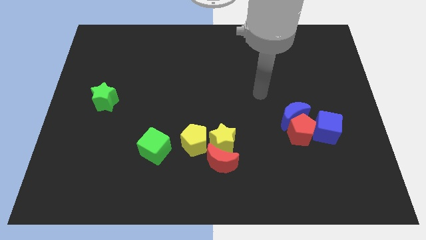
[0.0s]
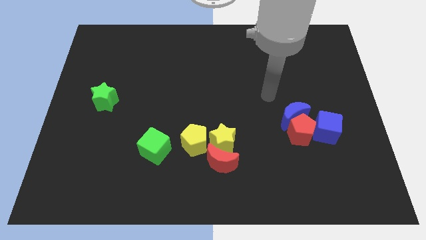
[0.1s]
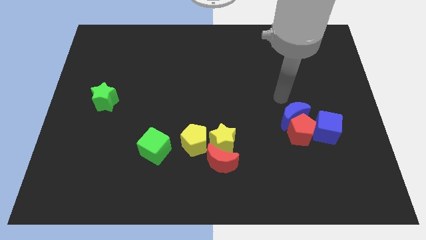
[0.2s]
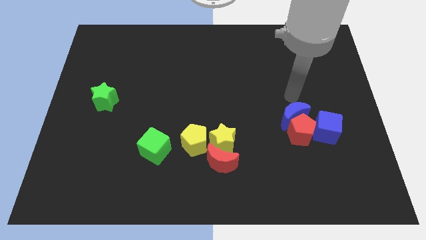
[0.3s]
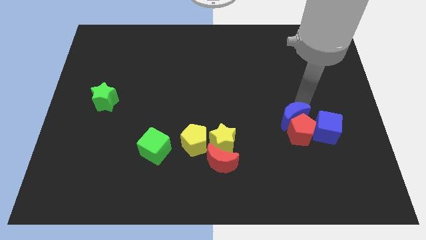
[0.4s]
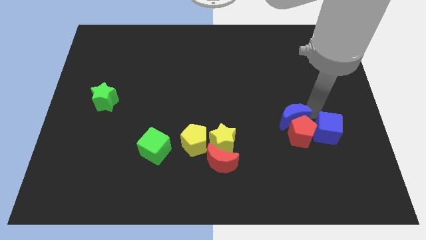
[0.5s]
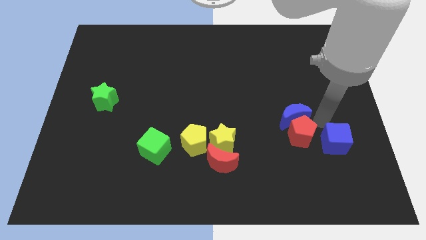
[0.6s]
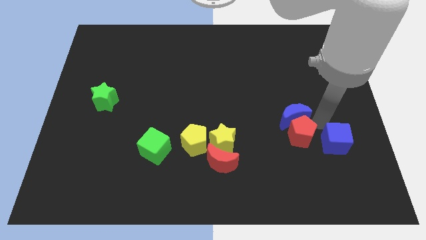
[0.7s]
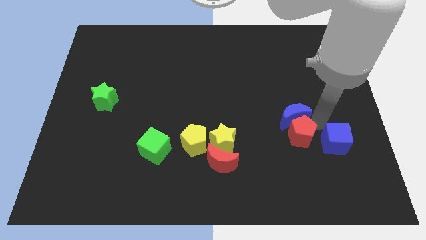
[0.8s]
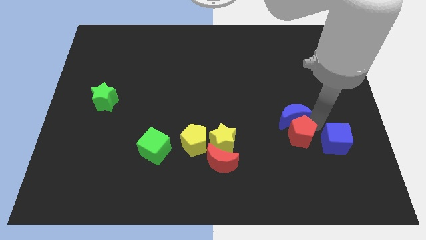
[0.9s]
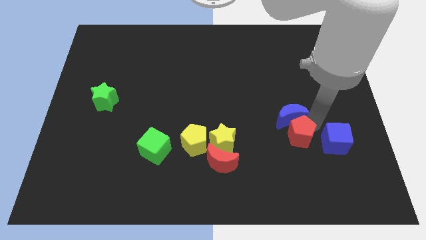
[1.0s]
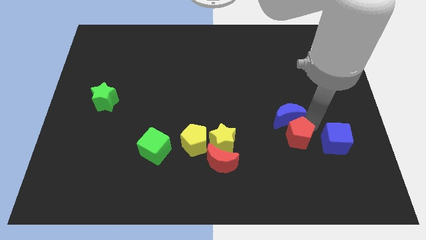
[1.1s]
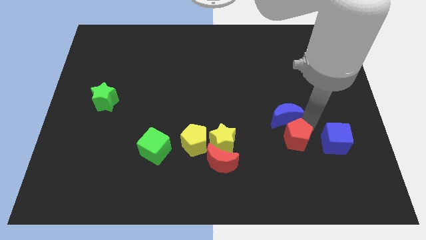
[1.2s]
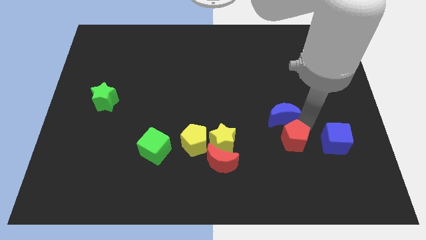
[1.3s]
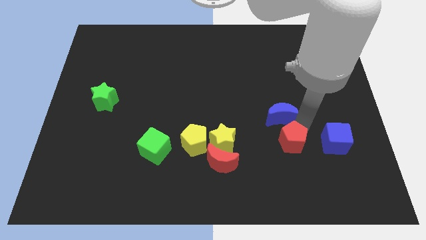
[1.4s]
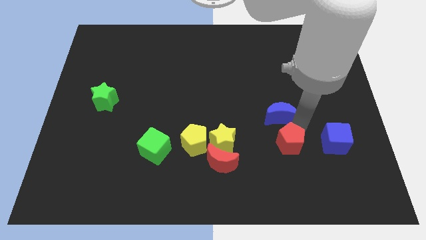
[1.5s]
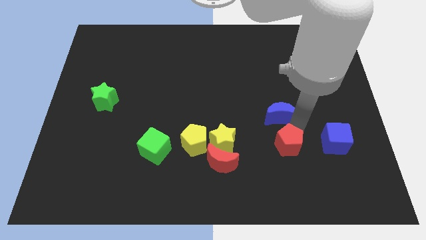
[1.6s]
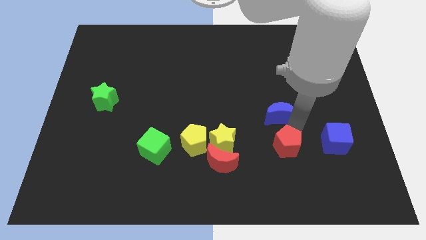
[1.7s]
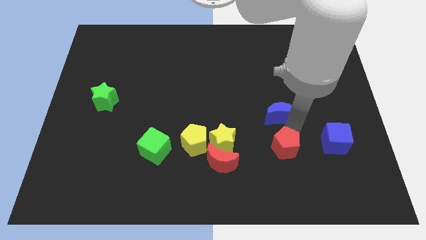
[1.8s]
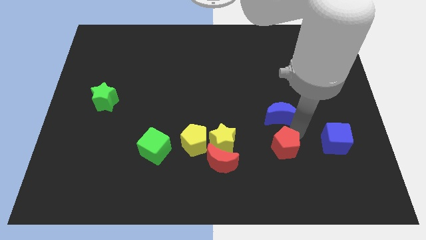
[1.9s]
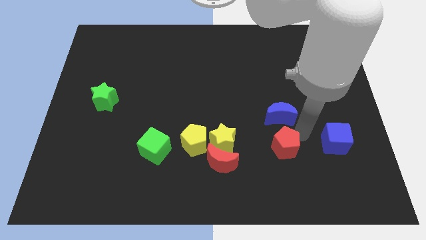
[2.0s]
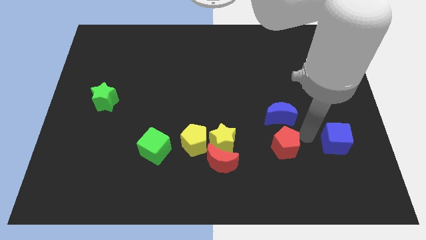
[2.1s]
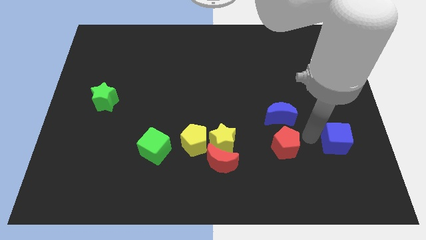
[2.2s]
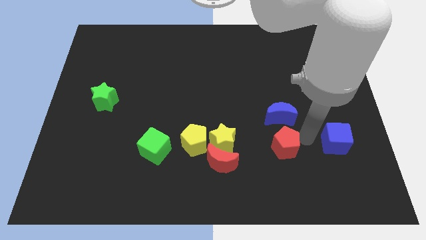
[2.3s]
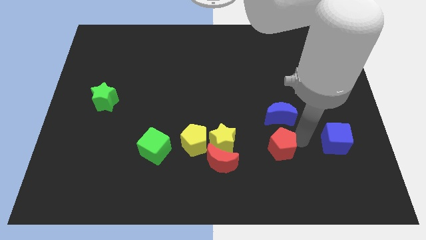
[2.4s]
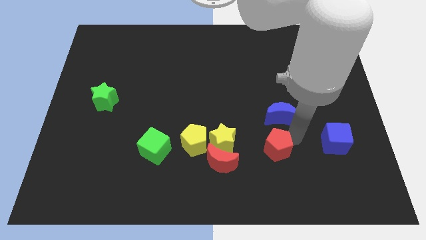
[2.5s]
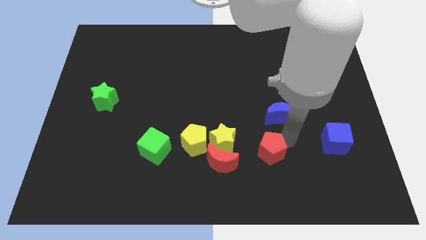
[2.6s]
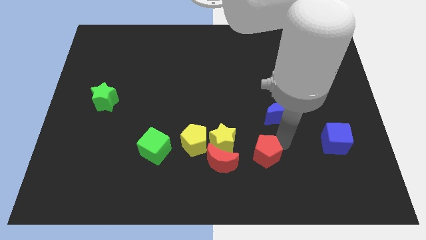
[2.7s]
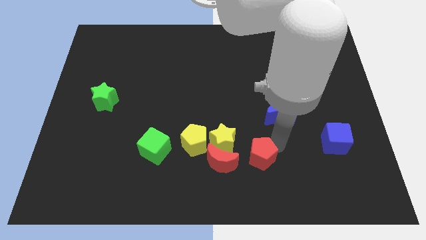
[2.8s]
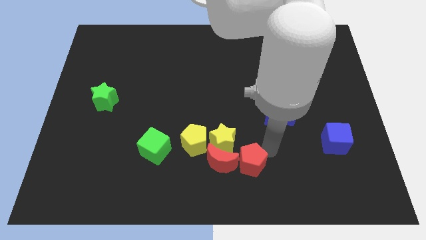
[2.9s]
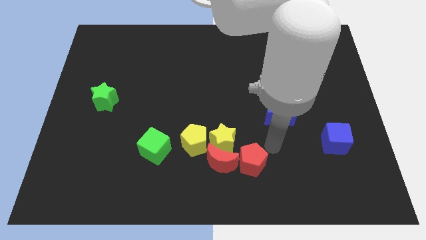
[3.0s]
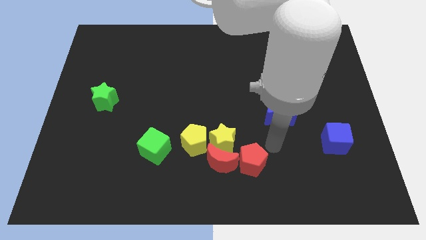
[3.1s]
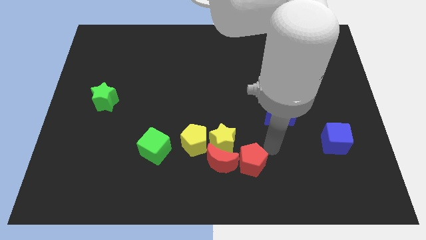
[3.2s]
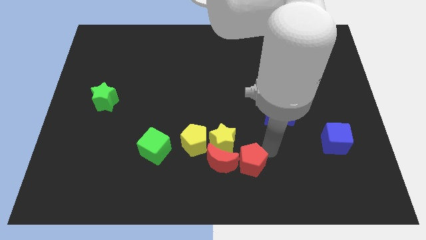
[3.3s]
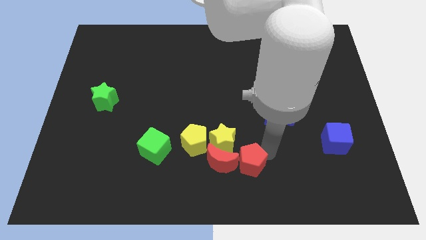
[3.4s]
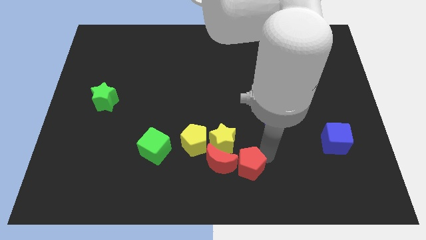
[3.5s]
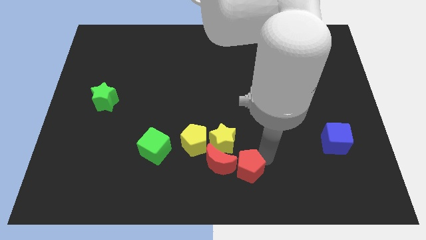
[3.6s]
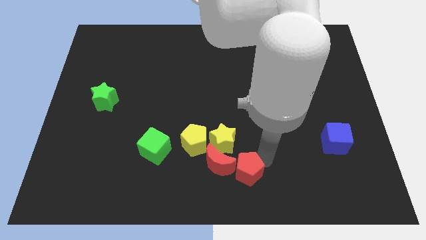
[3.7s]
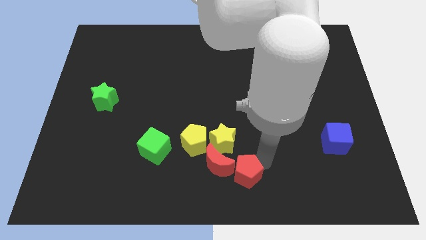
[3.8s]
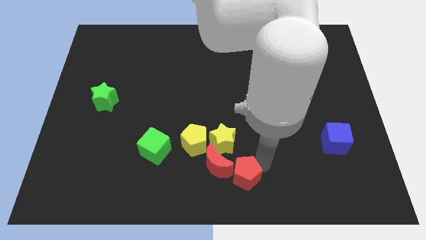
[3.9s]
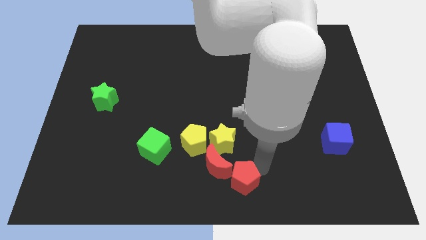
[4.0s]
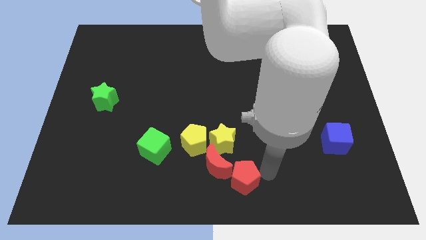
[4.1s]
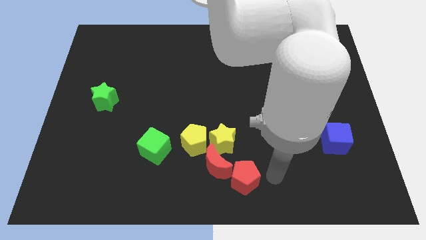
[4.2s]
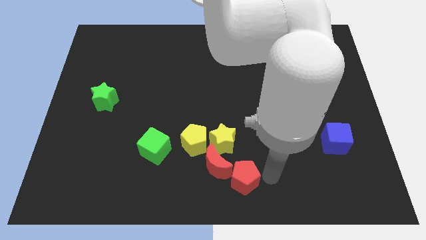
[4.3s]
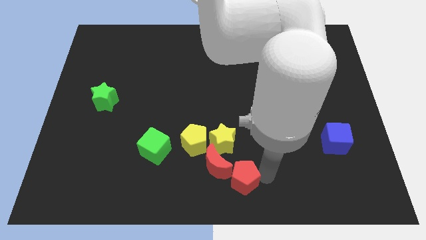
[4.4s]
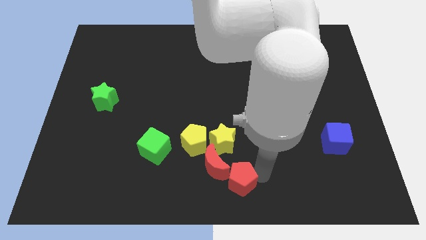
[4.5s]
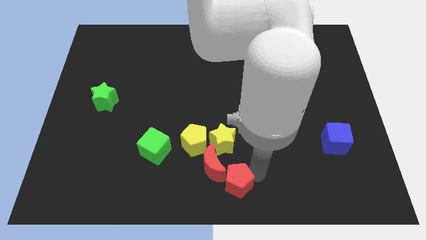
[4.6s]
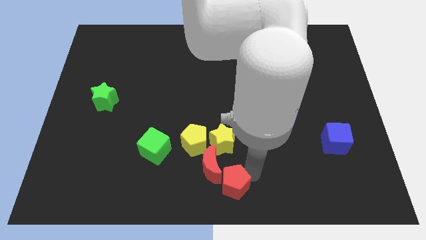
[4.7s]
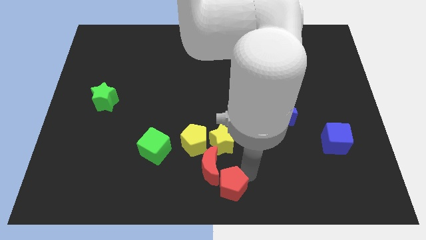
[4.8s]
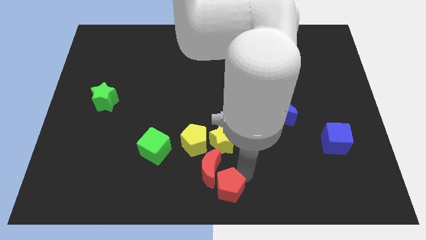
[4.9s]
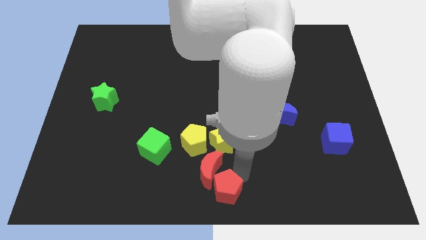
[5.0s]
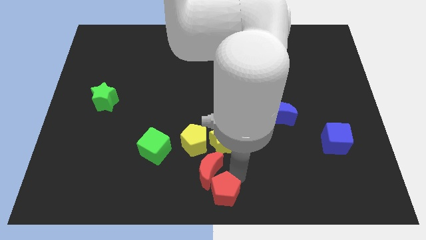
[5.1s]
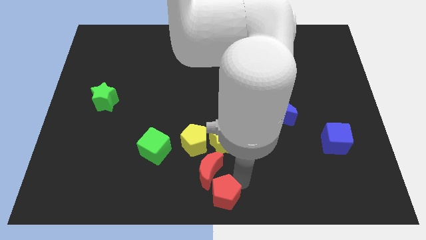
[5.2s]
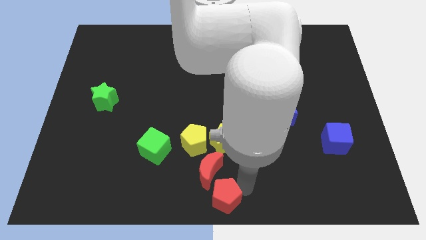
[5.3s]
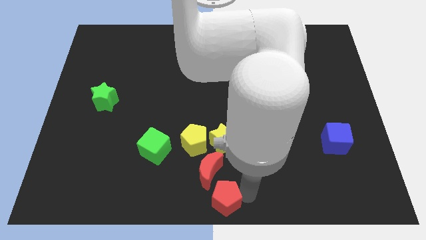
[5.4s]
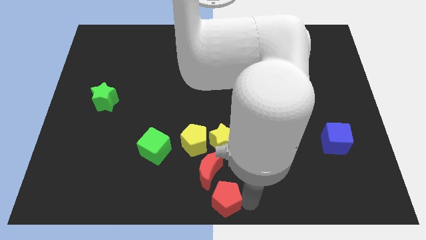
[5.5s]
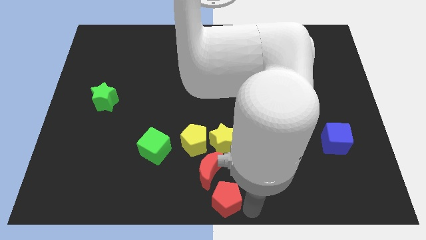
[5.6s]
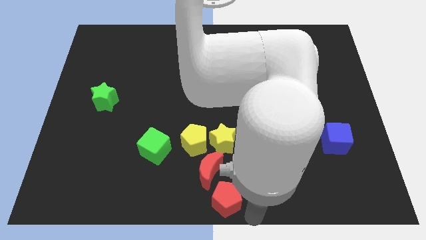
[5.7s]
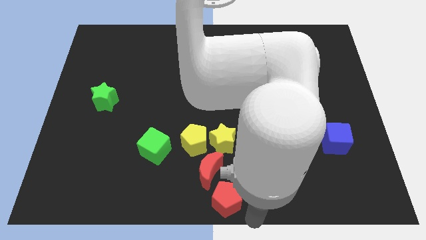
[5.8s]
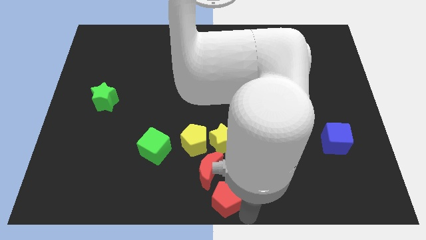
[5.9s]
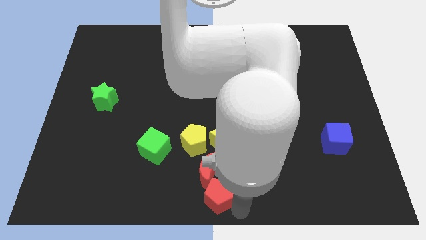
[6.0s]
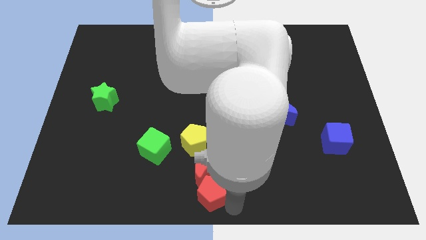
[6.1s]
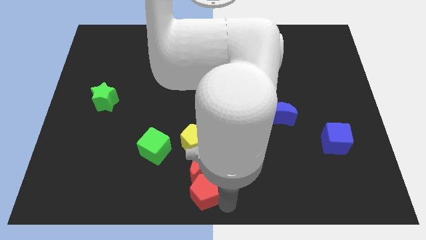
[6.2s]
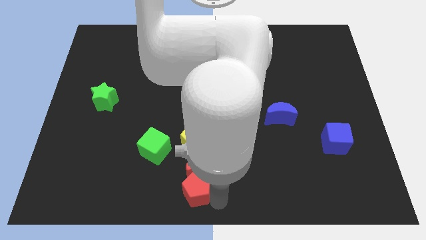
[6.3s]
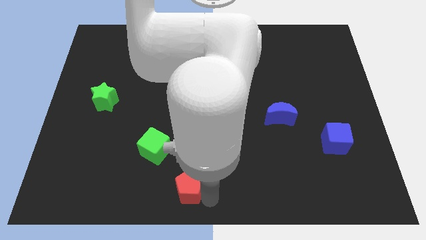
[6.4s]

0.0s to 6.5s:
push the red pentagon to the bottom right of the green cube
